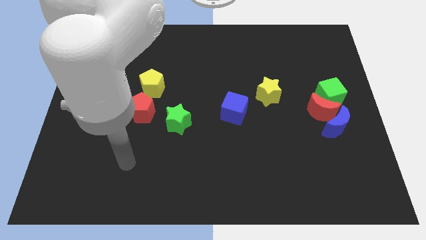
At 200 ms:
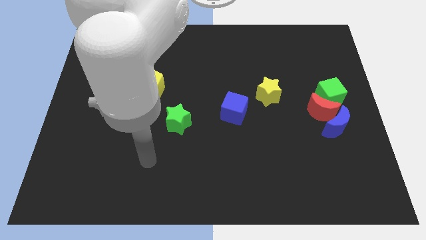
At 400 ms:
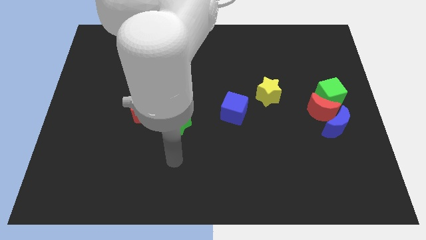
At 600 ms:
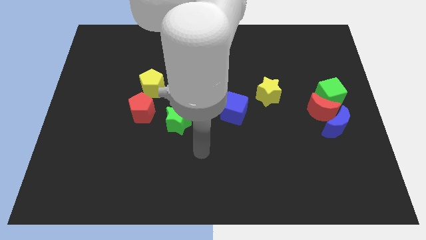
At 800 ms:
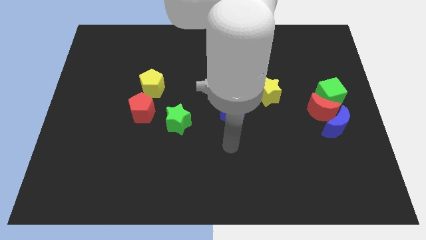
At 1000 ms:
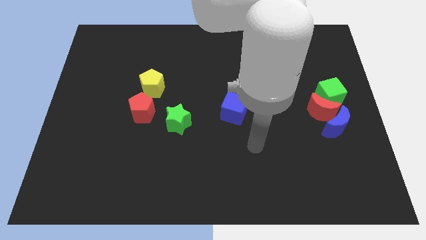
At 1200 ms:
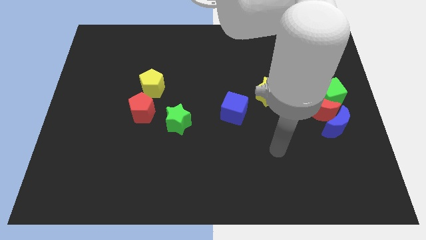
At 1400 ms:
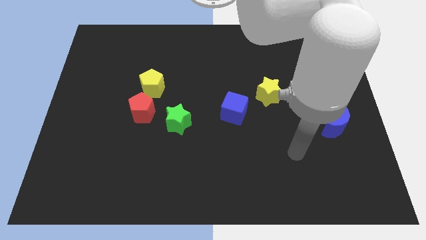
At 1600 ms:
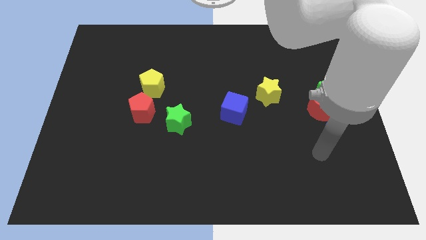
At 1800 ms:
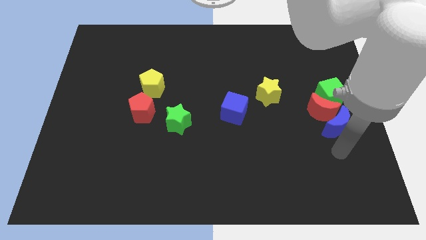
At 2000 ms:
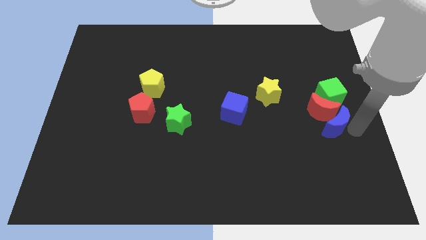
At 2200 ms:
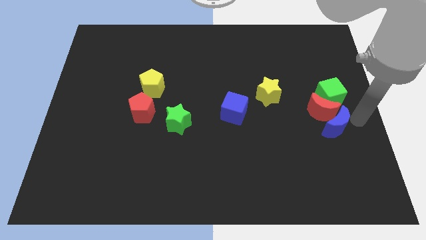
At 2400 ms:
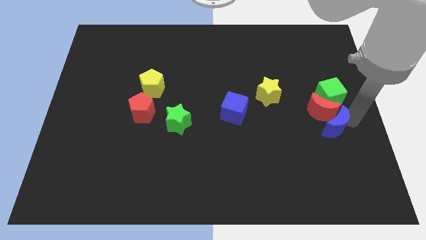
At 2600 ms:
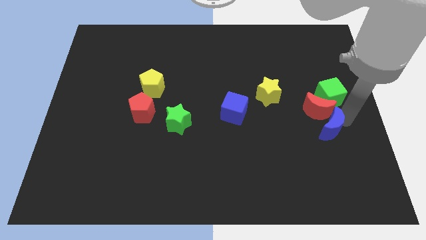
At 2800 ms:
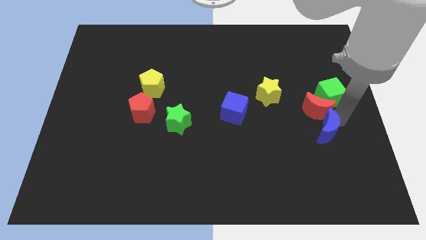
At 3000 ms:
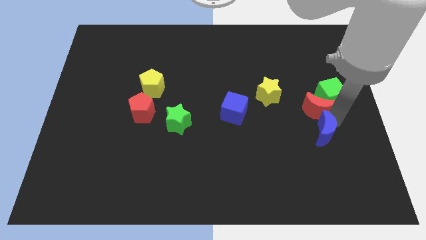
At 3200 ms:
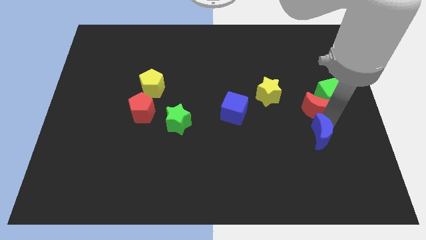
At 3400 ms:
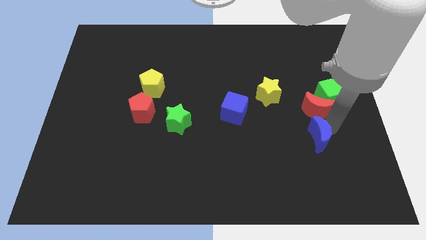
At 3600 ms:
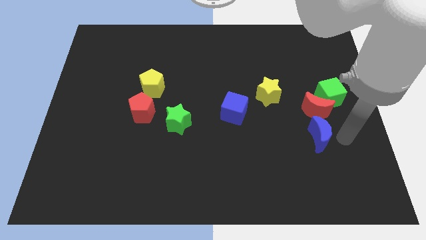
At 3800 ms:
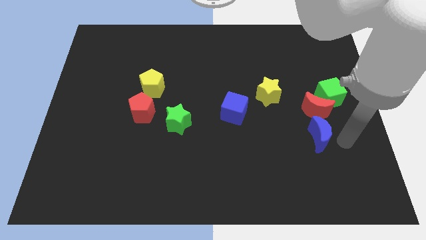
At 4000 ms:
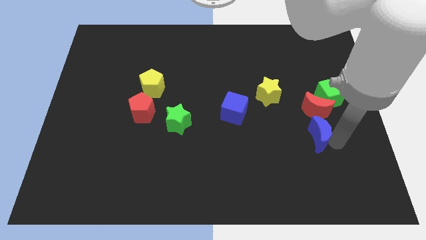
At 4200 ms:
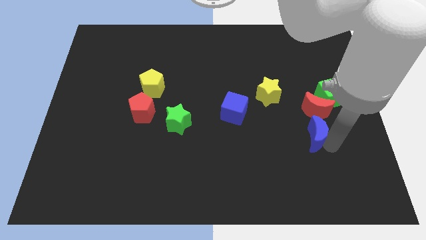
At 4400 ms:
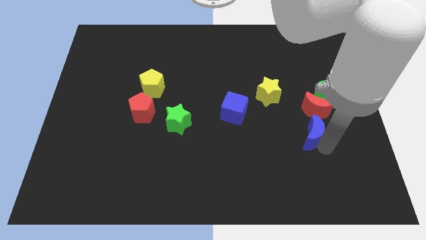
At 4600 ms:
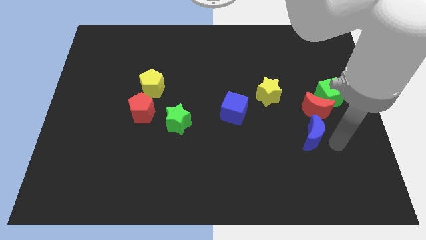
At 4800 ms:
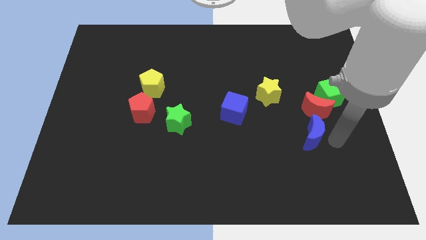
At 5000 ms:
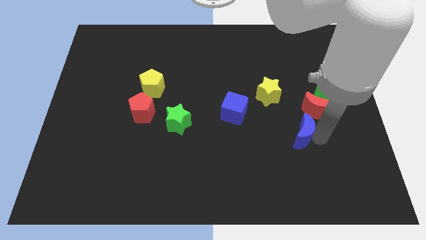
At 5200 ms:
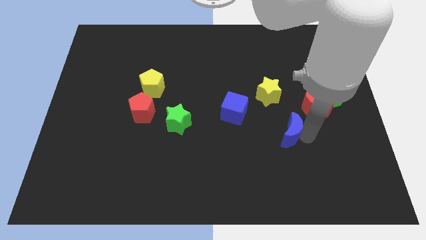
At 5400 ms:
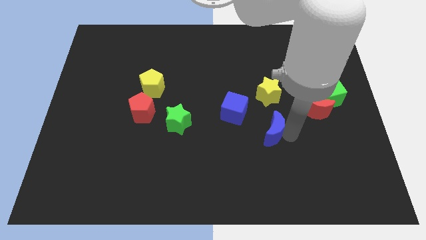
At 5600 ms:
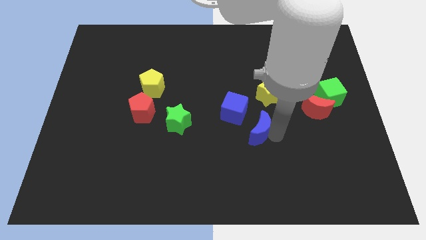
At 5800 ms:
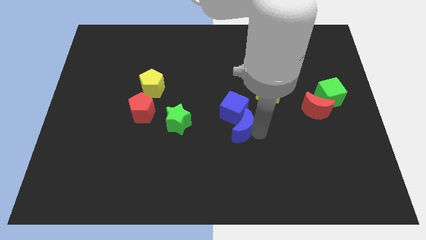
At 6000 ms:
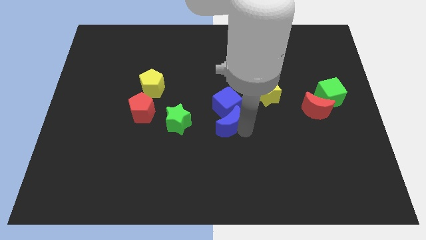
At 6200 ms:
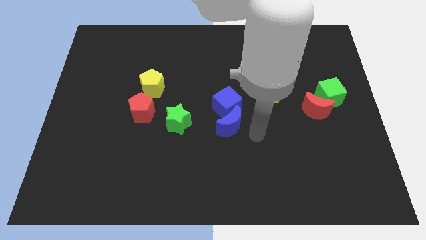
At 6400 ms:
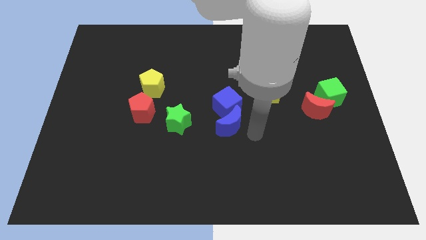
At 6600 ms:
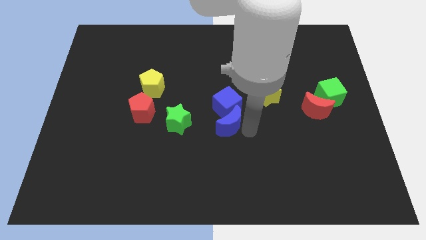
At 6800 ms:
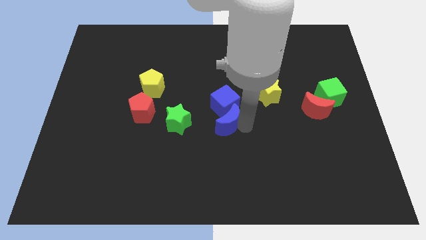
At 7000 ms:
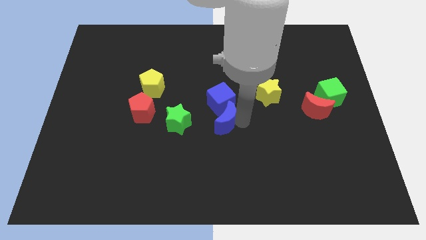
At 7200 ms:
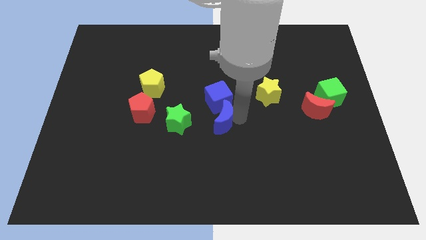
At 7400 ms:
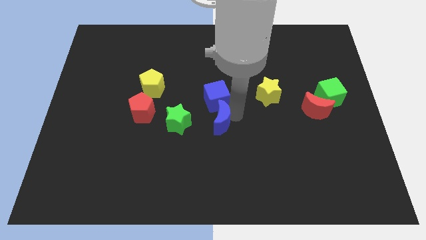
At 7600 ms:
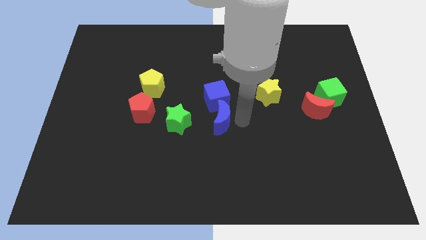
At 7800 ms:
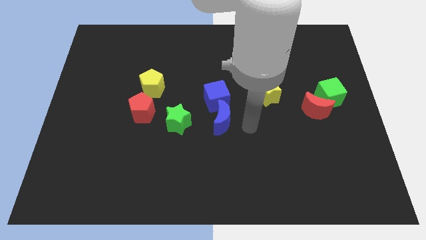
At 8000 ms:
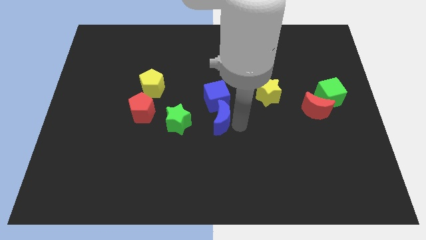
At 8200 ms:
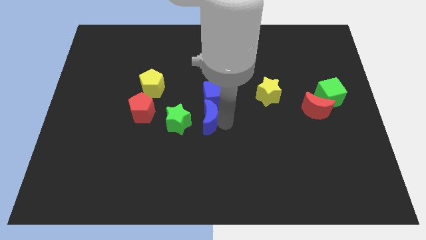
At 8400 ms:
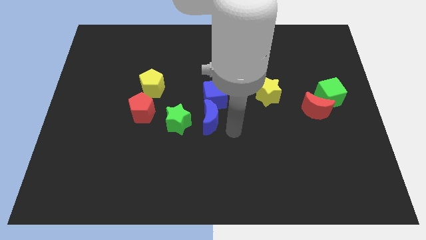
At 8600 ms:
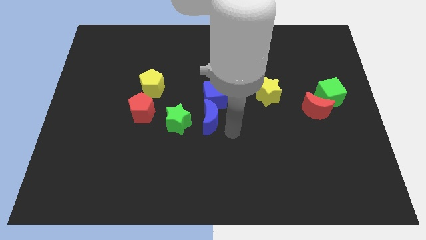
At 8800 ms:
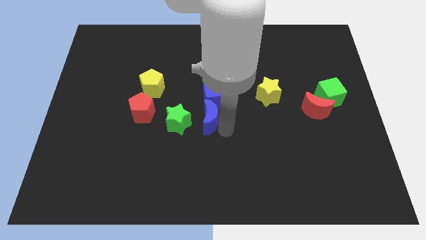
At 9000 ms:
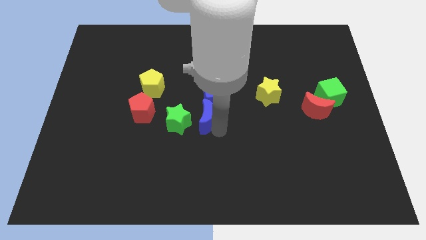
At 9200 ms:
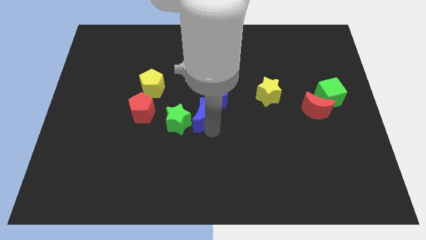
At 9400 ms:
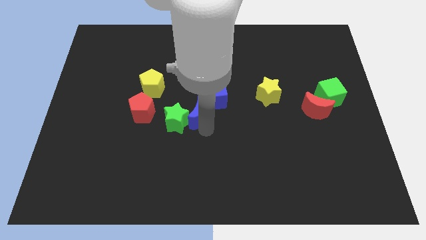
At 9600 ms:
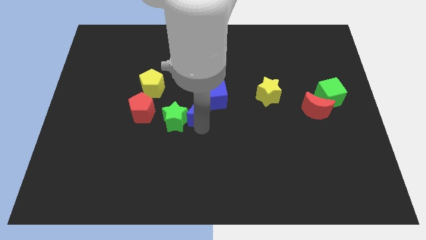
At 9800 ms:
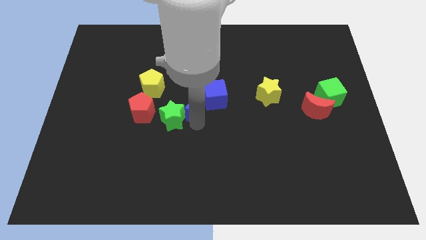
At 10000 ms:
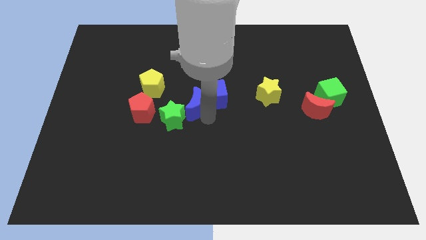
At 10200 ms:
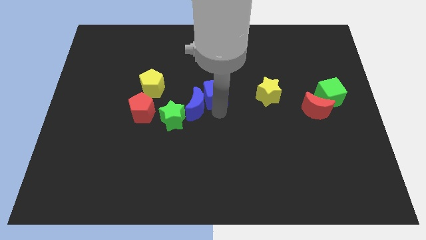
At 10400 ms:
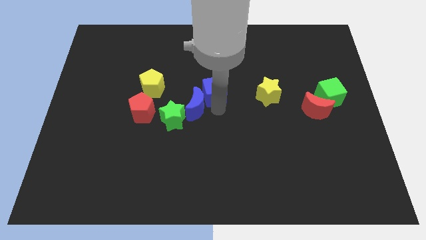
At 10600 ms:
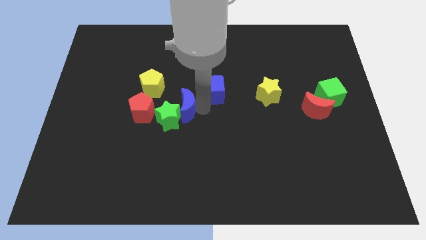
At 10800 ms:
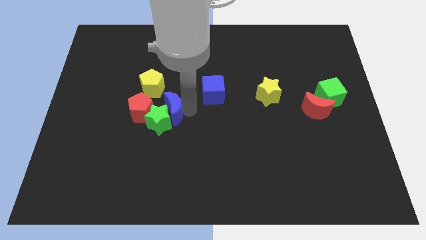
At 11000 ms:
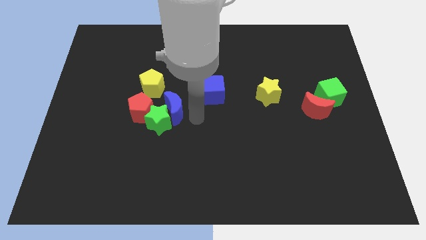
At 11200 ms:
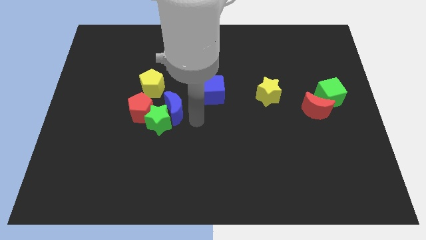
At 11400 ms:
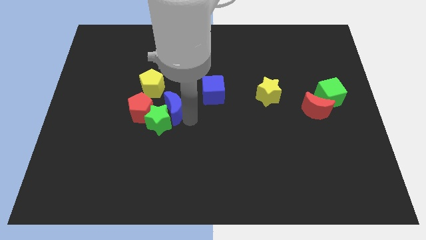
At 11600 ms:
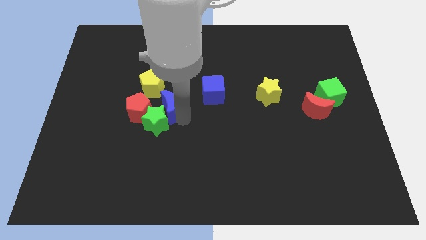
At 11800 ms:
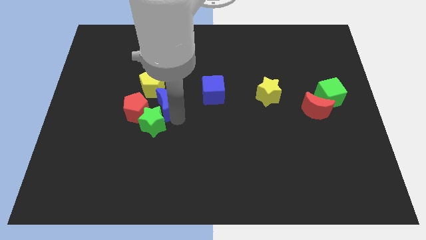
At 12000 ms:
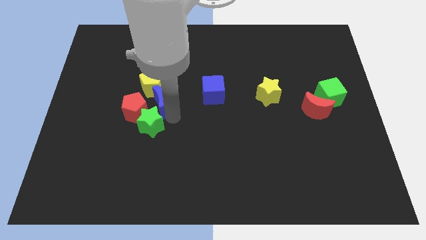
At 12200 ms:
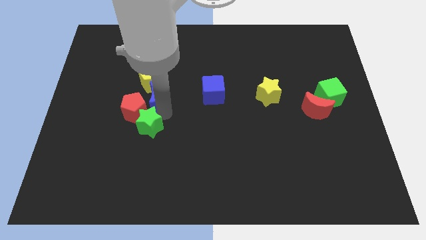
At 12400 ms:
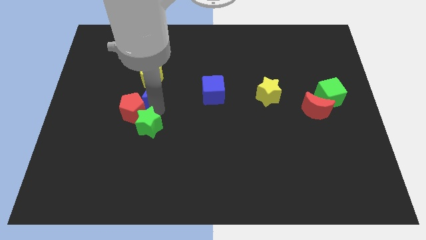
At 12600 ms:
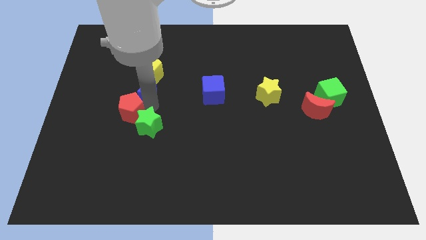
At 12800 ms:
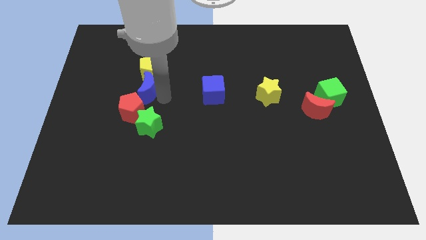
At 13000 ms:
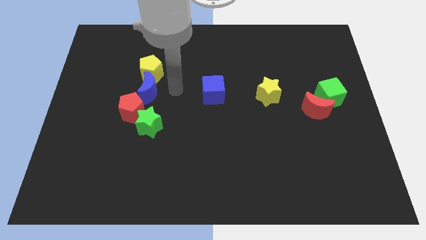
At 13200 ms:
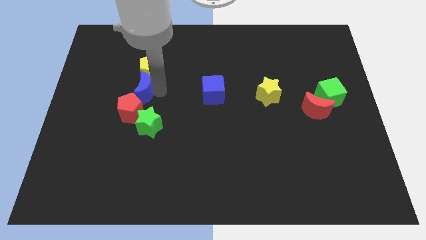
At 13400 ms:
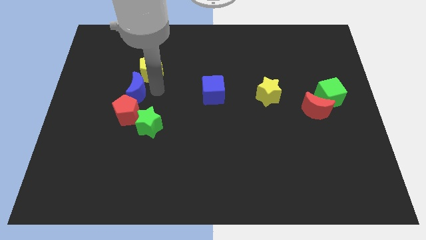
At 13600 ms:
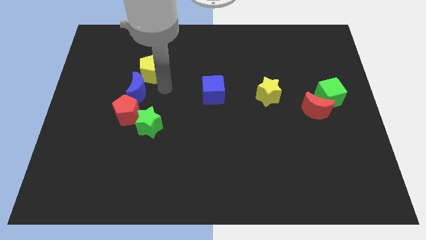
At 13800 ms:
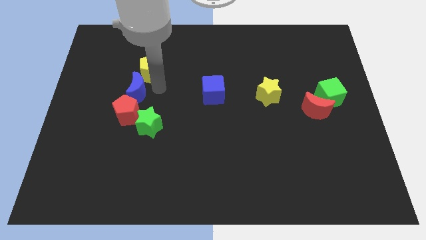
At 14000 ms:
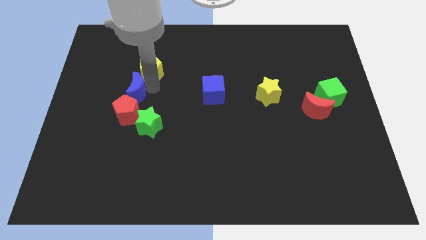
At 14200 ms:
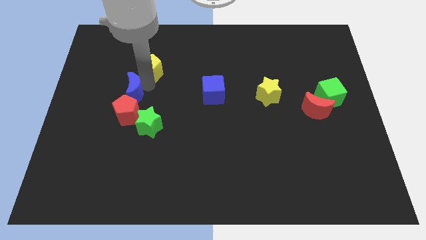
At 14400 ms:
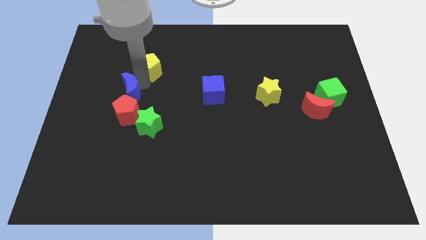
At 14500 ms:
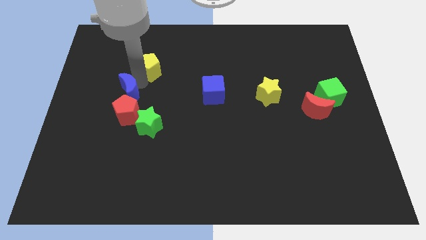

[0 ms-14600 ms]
move the blue moon to the top left of the red pentagon
